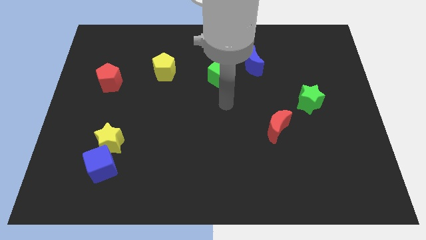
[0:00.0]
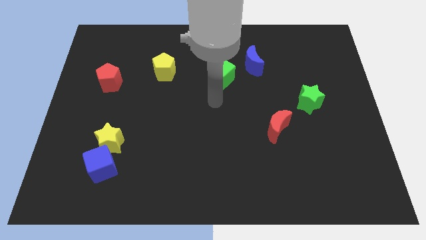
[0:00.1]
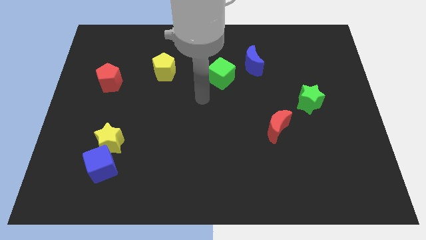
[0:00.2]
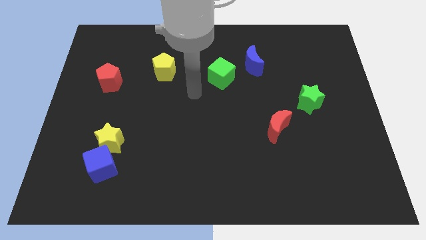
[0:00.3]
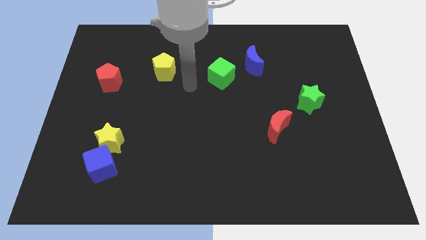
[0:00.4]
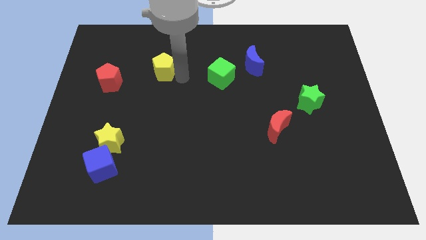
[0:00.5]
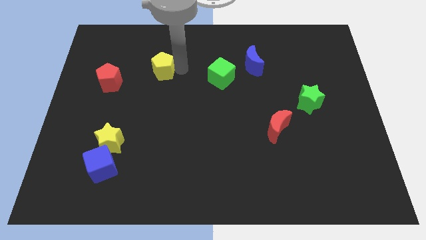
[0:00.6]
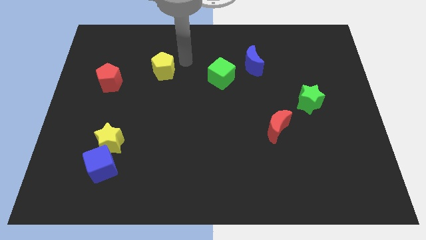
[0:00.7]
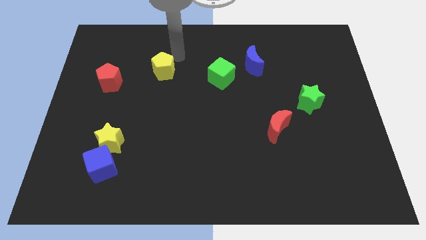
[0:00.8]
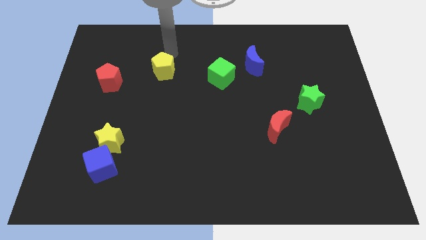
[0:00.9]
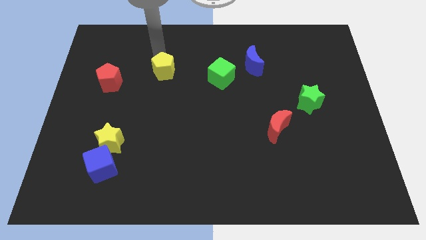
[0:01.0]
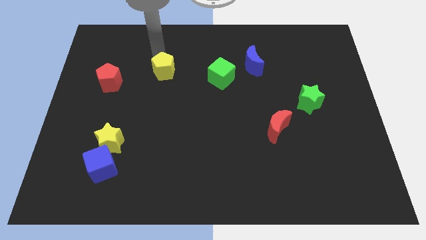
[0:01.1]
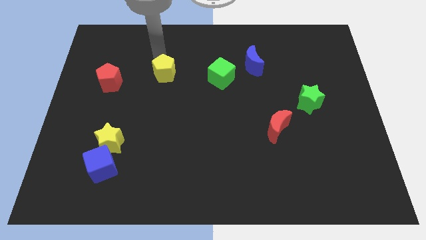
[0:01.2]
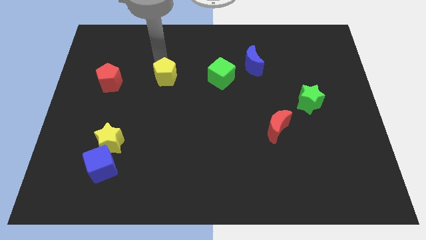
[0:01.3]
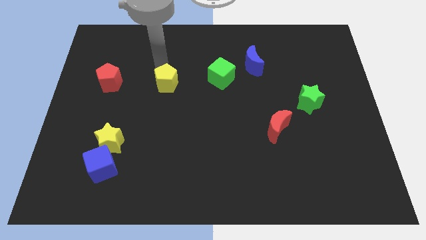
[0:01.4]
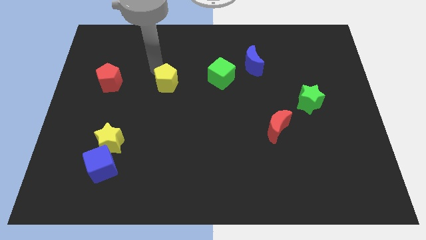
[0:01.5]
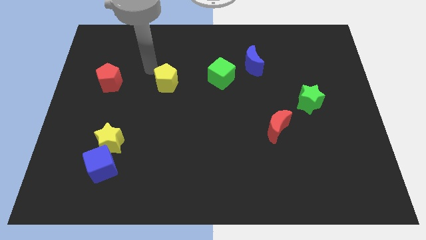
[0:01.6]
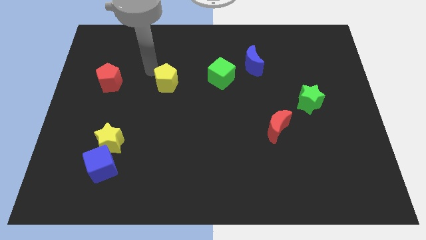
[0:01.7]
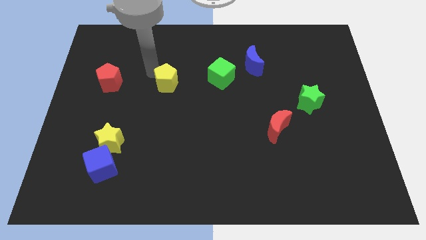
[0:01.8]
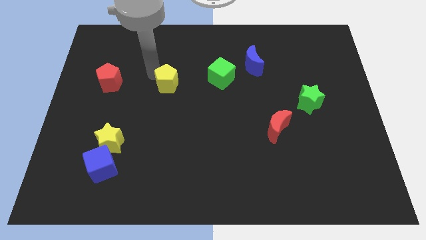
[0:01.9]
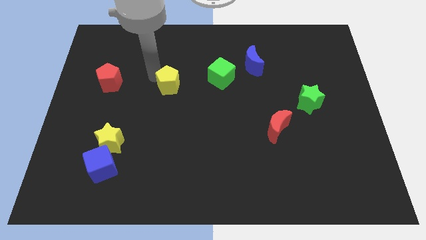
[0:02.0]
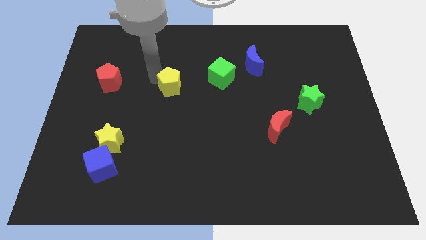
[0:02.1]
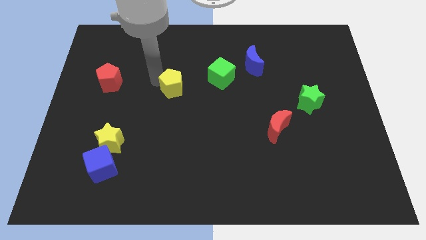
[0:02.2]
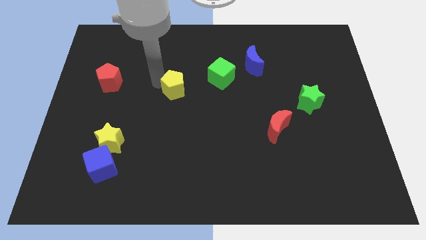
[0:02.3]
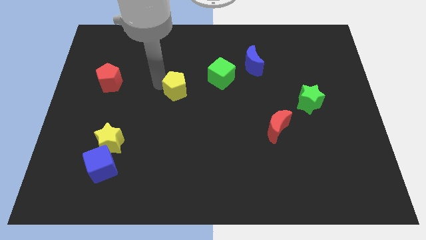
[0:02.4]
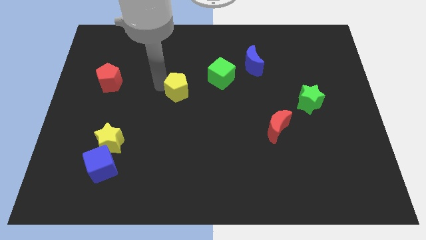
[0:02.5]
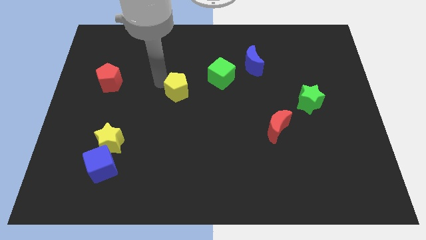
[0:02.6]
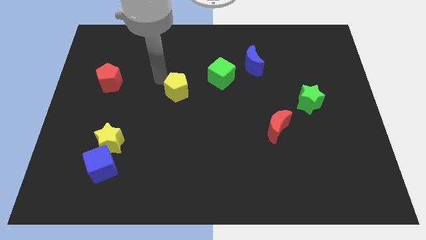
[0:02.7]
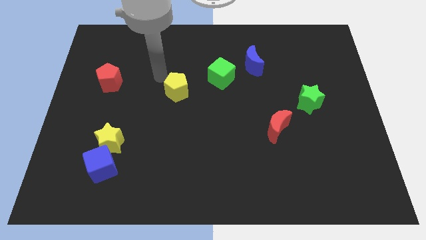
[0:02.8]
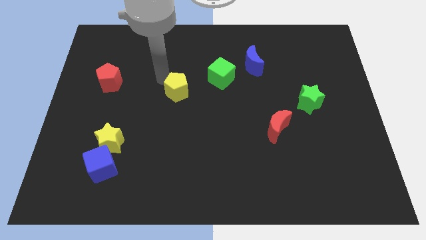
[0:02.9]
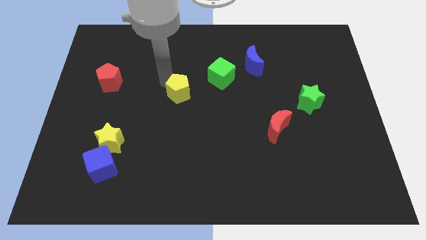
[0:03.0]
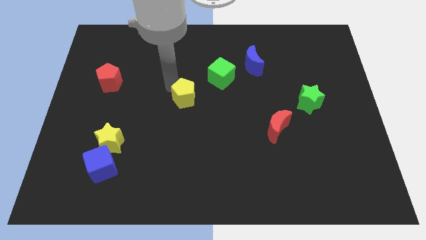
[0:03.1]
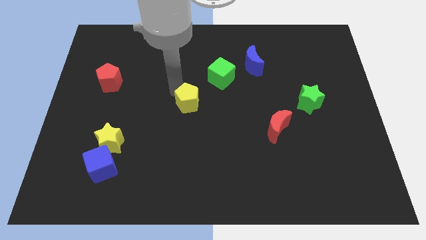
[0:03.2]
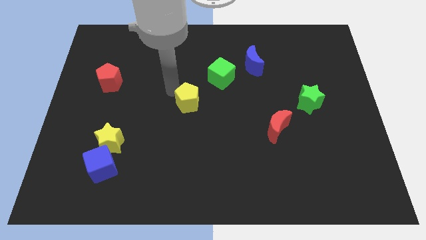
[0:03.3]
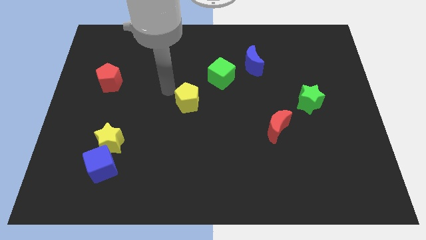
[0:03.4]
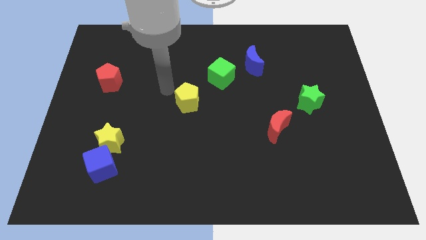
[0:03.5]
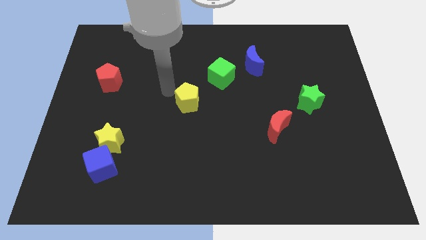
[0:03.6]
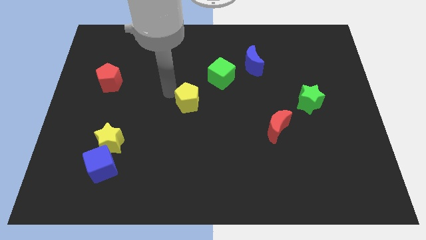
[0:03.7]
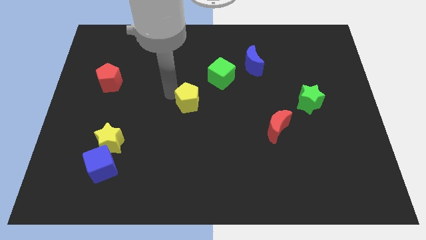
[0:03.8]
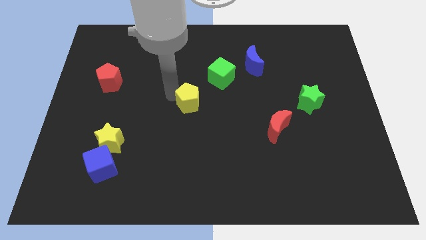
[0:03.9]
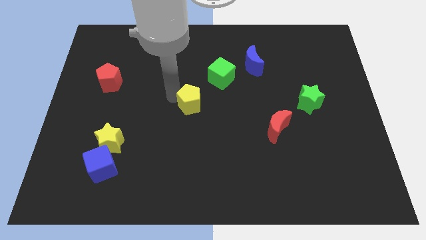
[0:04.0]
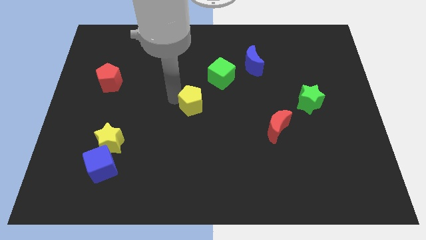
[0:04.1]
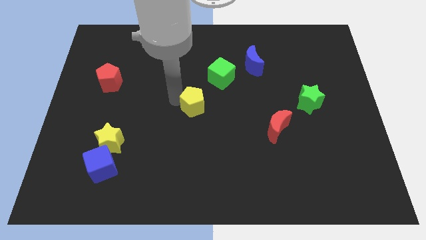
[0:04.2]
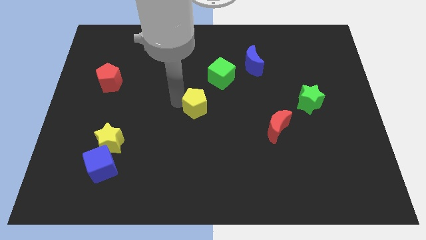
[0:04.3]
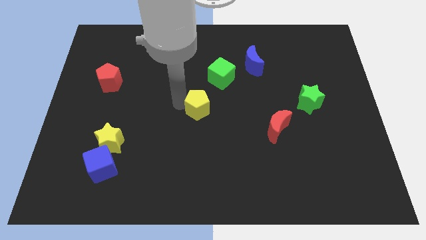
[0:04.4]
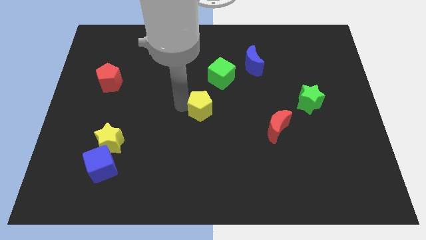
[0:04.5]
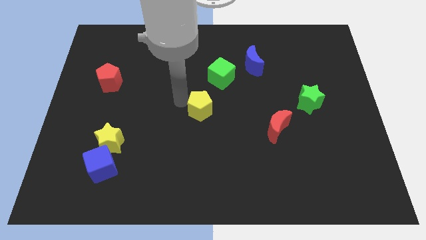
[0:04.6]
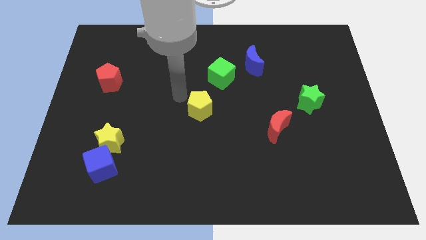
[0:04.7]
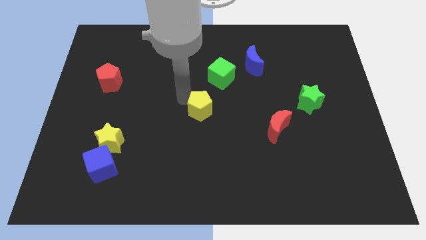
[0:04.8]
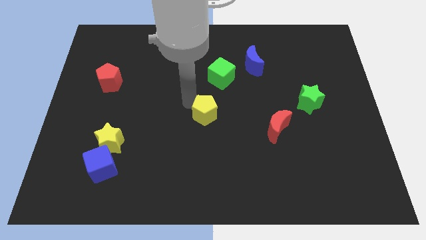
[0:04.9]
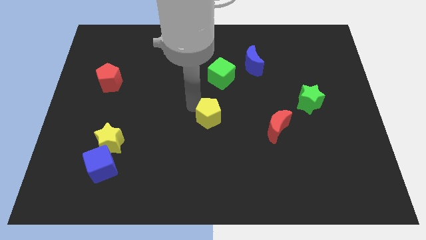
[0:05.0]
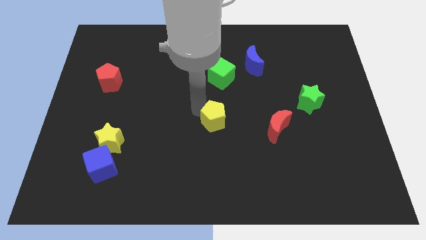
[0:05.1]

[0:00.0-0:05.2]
put the yellow pentagon just left of the red moon

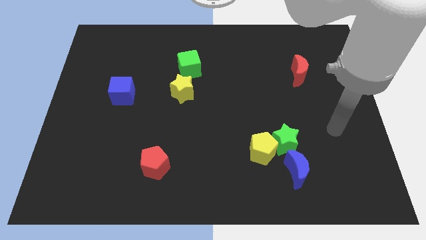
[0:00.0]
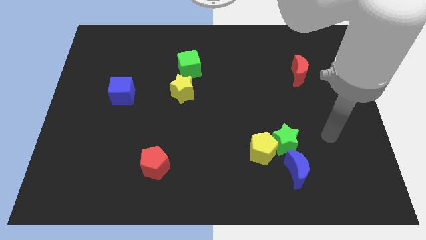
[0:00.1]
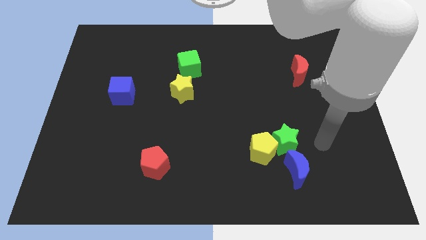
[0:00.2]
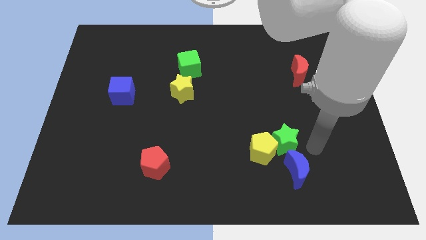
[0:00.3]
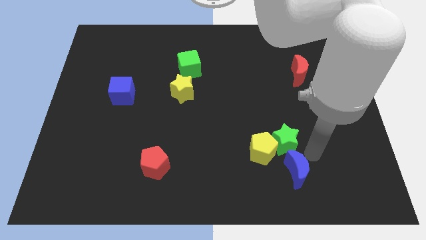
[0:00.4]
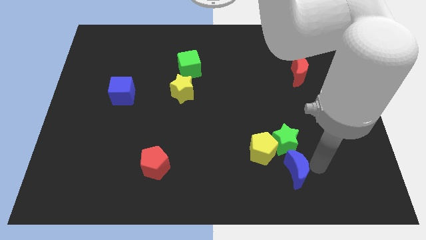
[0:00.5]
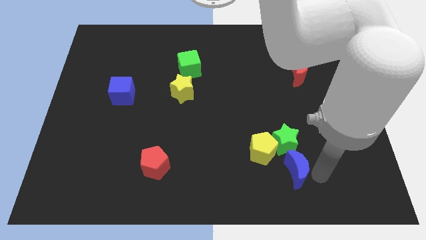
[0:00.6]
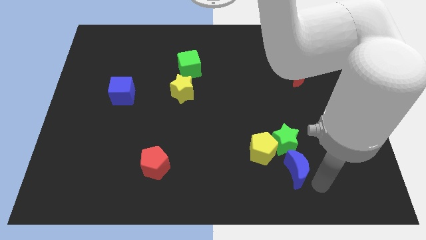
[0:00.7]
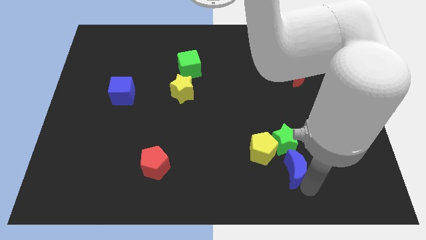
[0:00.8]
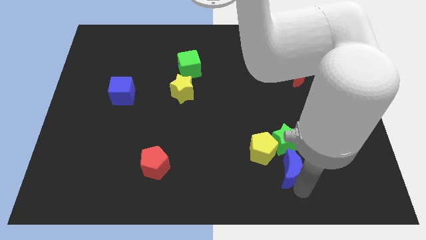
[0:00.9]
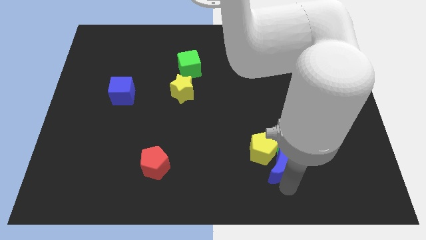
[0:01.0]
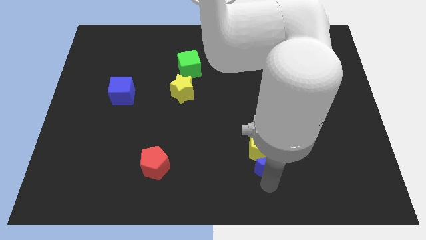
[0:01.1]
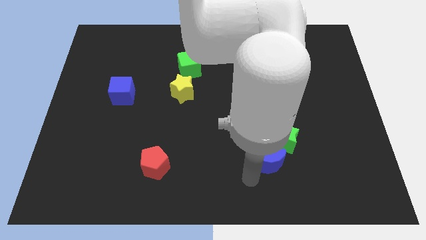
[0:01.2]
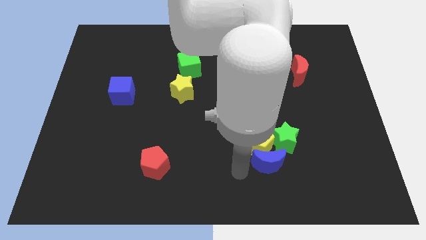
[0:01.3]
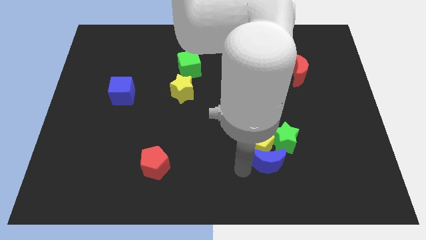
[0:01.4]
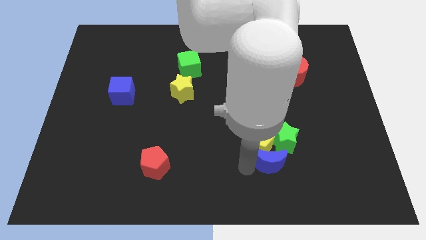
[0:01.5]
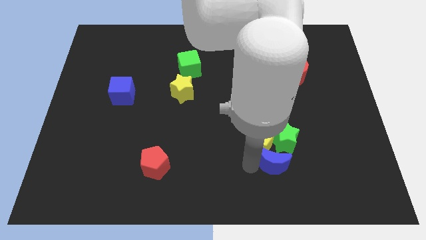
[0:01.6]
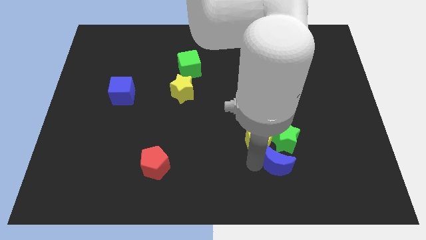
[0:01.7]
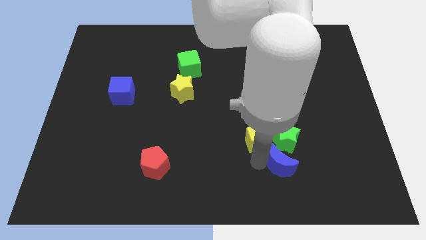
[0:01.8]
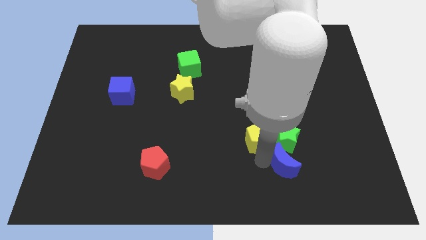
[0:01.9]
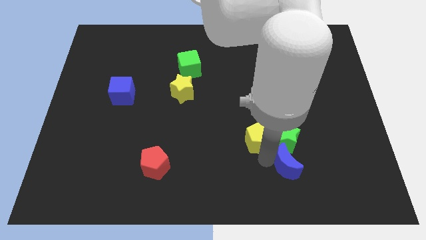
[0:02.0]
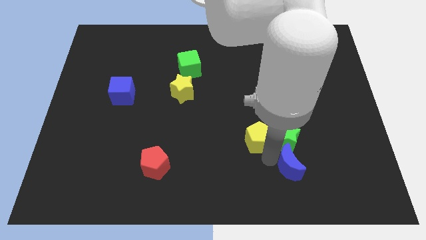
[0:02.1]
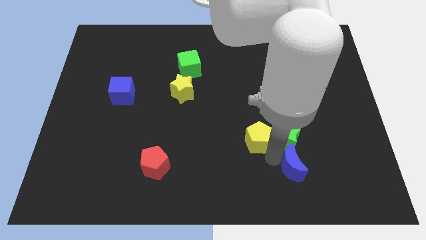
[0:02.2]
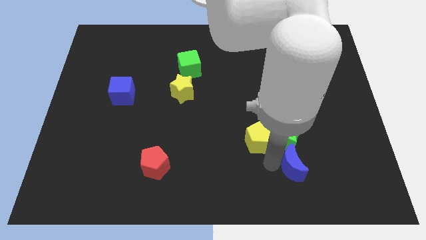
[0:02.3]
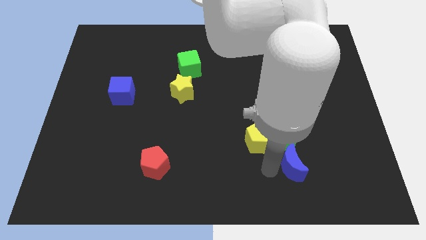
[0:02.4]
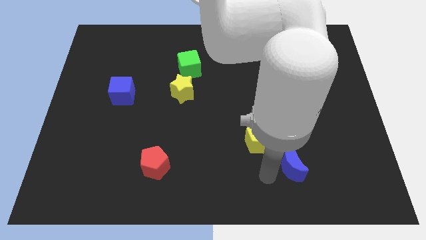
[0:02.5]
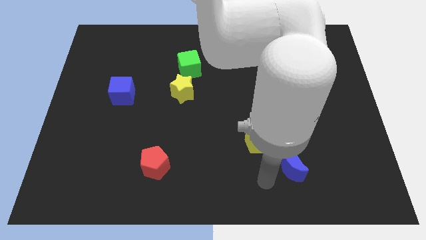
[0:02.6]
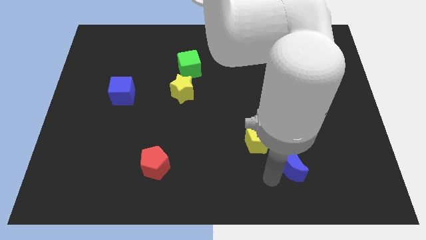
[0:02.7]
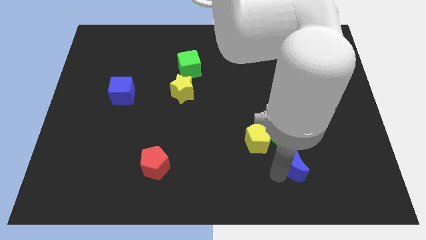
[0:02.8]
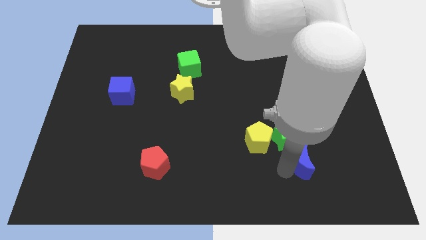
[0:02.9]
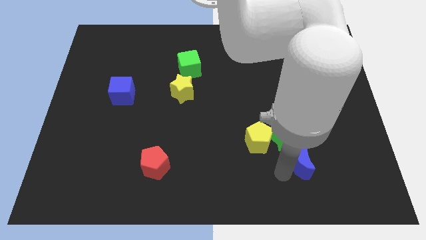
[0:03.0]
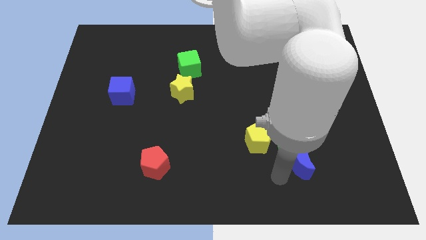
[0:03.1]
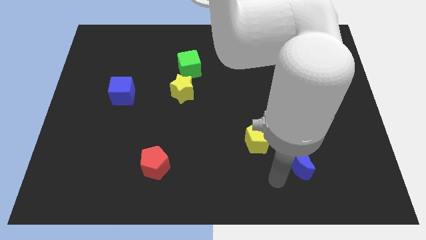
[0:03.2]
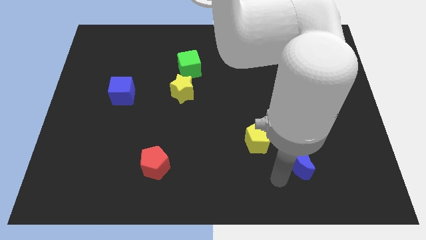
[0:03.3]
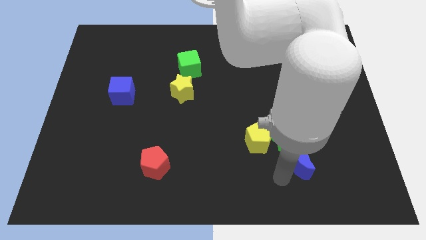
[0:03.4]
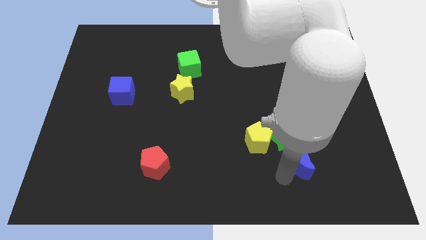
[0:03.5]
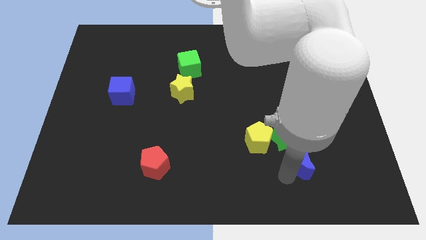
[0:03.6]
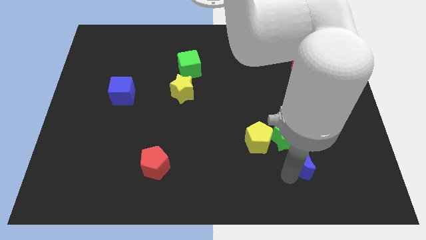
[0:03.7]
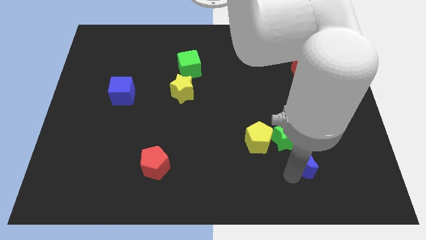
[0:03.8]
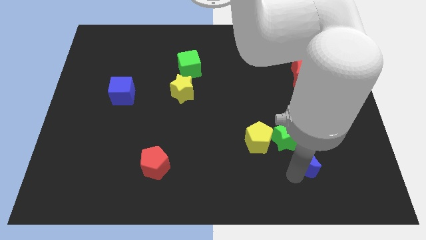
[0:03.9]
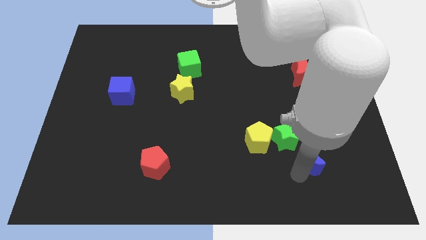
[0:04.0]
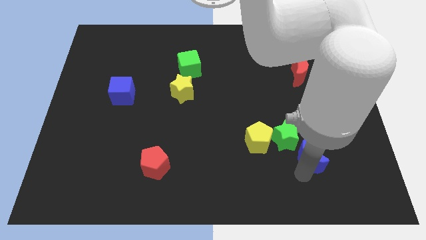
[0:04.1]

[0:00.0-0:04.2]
move the blue moon to the right side of the green star
